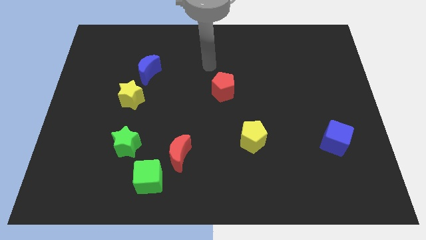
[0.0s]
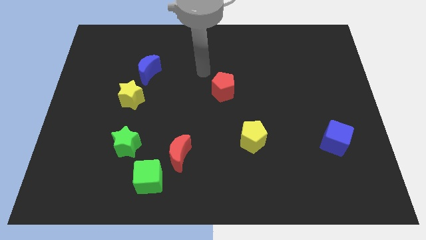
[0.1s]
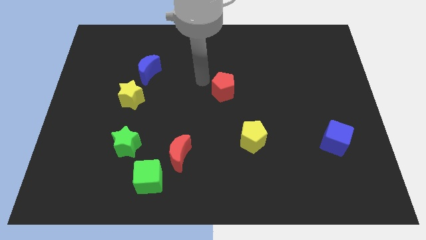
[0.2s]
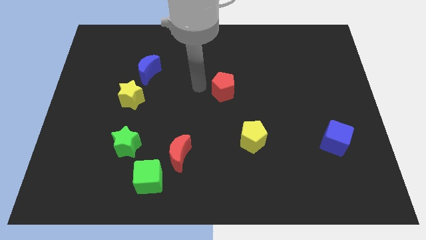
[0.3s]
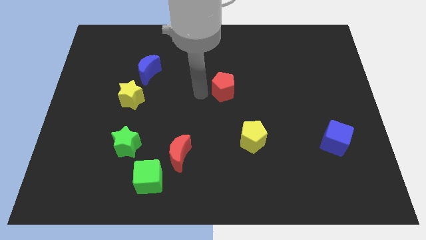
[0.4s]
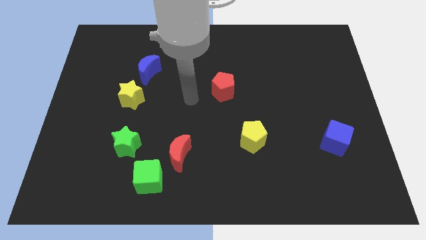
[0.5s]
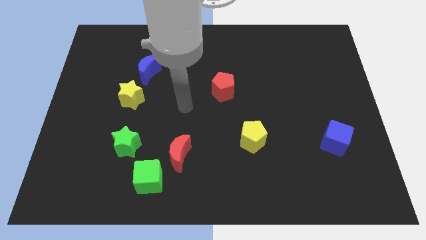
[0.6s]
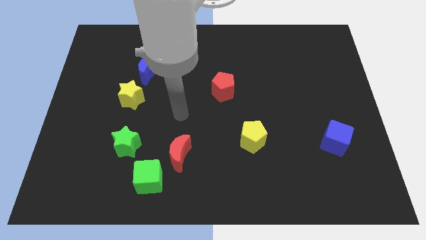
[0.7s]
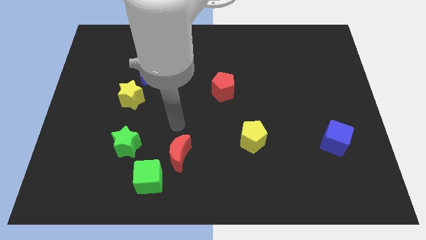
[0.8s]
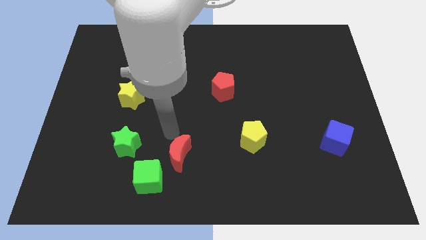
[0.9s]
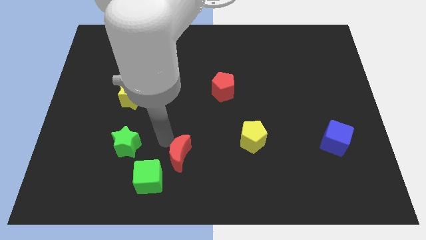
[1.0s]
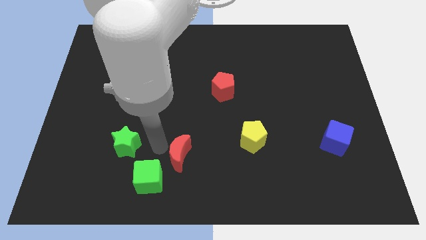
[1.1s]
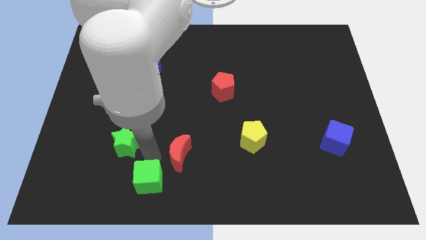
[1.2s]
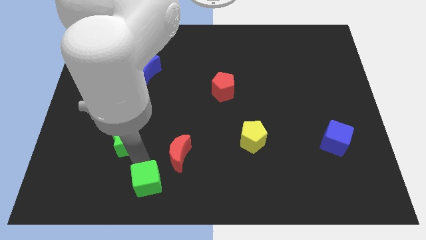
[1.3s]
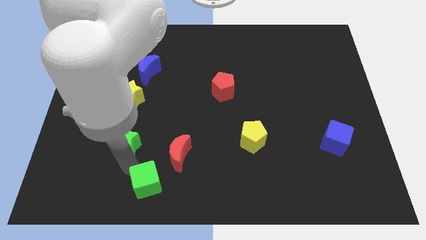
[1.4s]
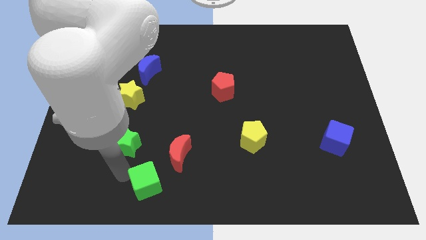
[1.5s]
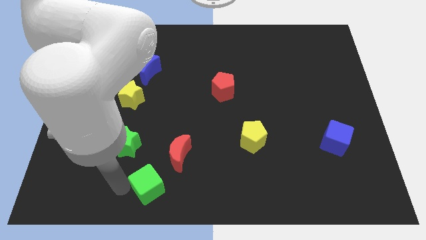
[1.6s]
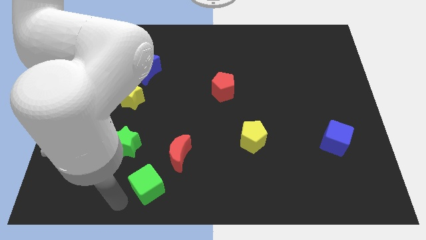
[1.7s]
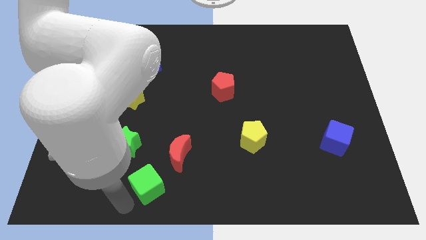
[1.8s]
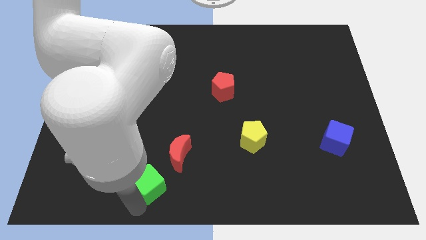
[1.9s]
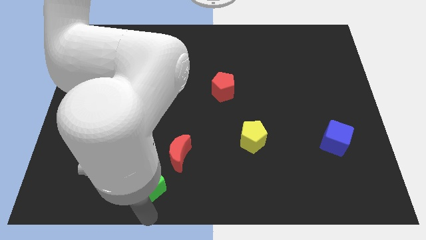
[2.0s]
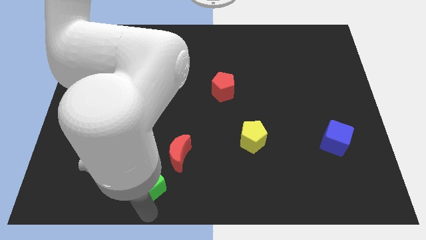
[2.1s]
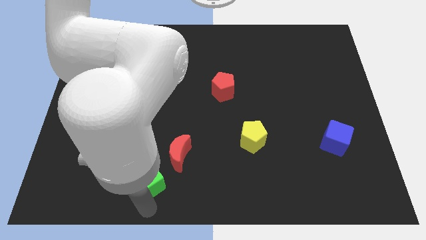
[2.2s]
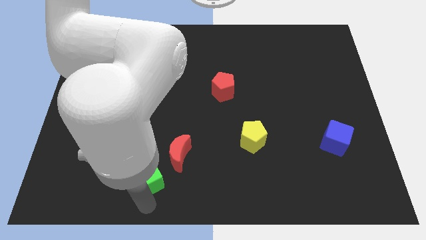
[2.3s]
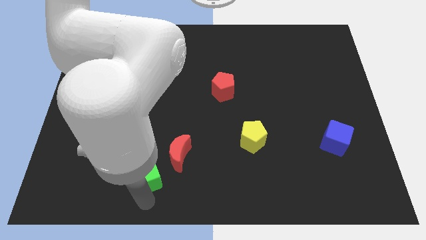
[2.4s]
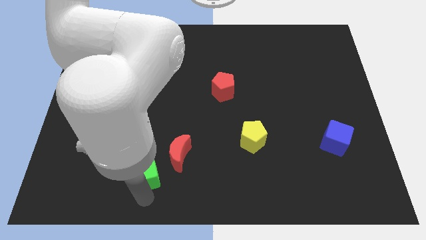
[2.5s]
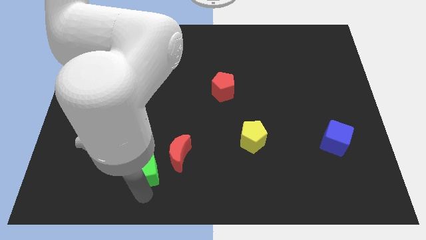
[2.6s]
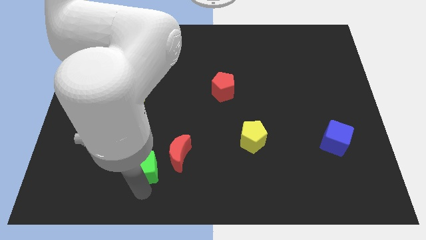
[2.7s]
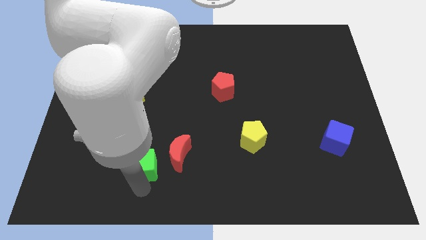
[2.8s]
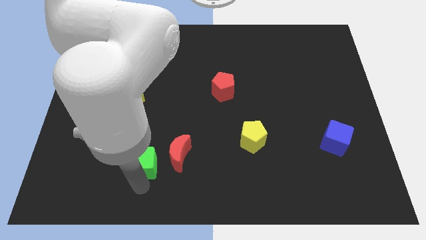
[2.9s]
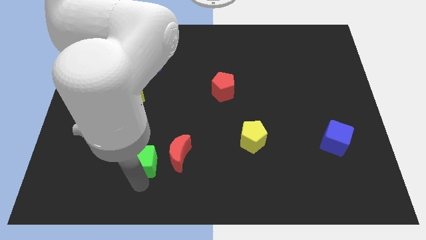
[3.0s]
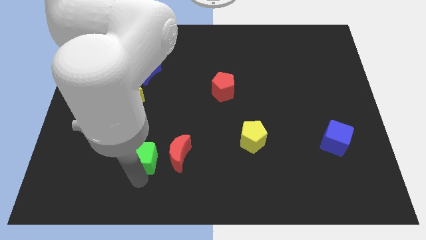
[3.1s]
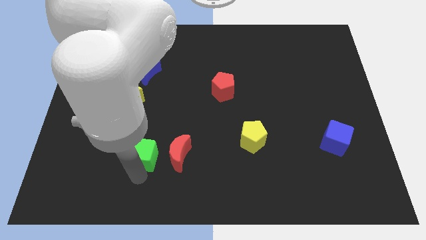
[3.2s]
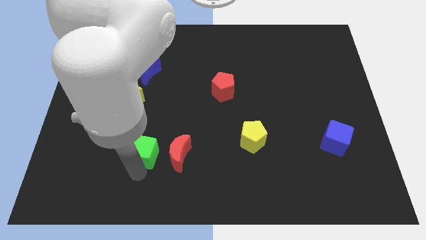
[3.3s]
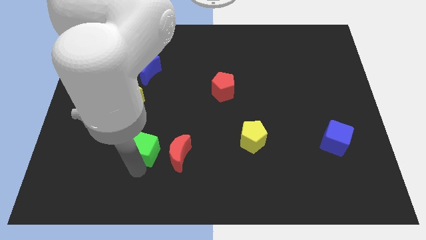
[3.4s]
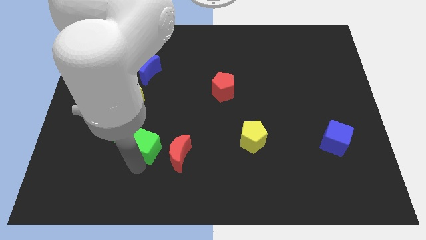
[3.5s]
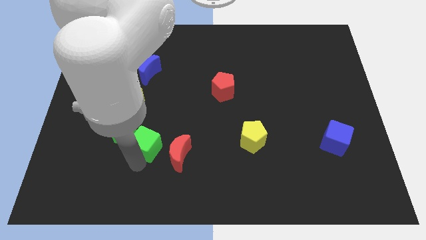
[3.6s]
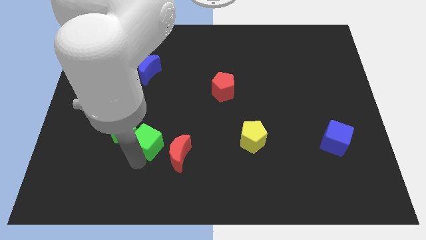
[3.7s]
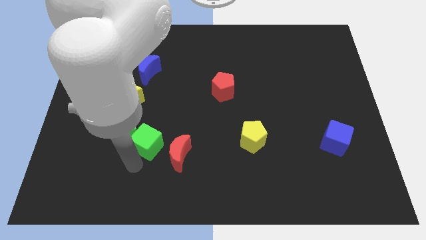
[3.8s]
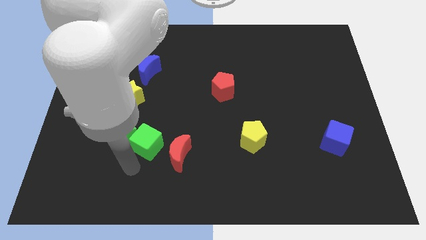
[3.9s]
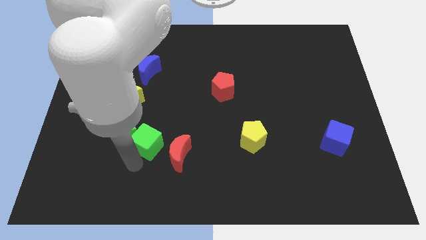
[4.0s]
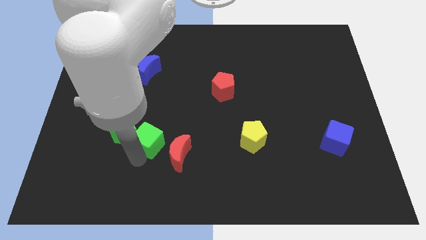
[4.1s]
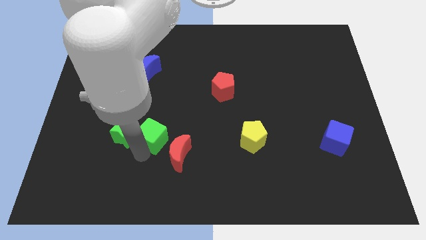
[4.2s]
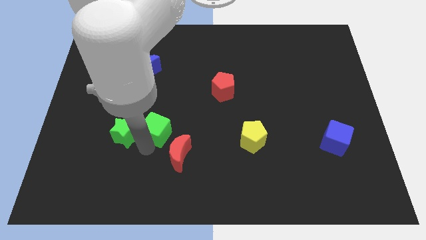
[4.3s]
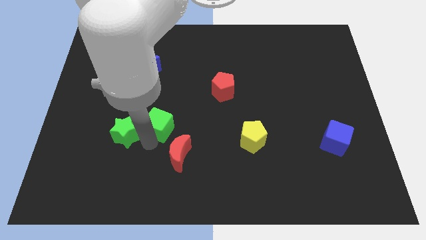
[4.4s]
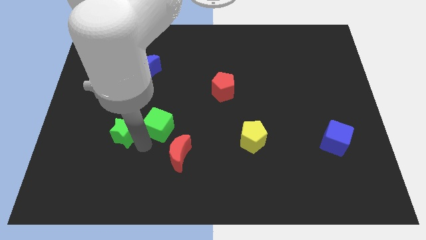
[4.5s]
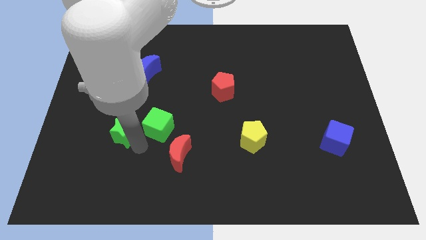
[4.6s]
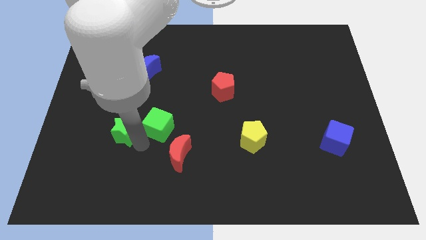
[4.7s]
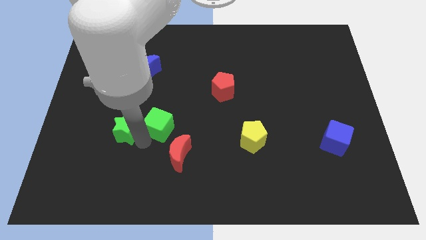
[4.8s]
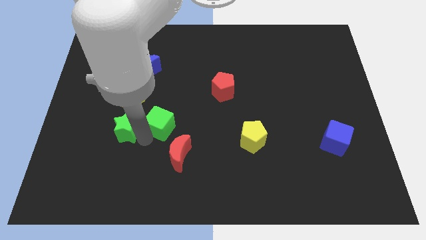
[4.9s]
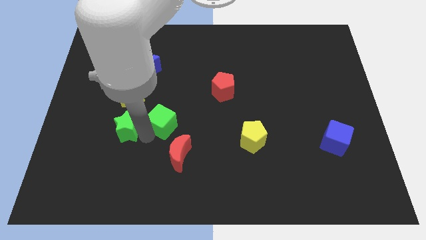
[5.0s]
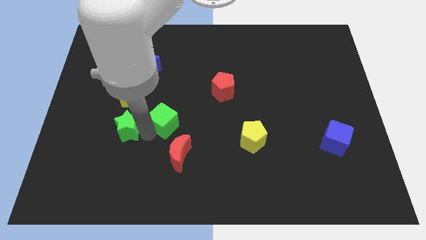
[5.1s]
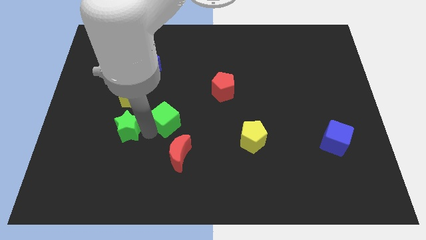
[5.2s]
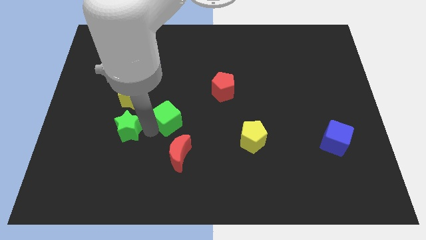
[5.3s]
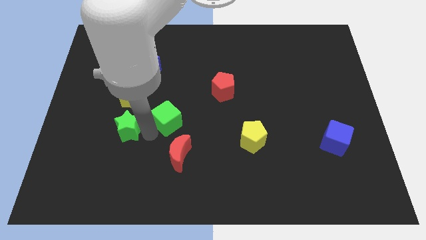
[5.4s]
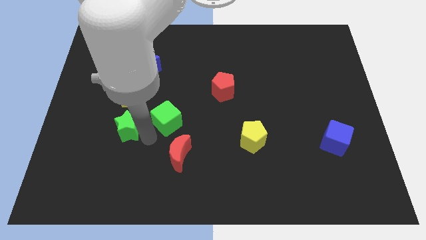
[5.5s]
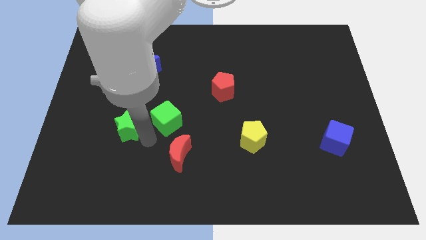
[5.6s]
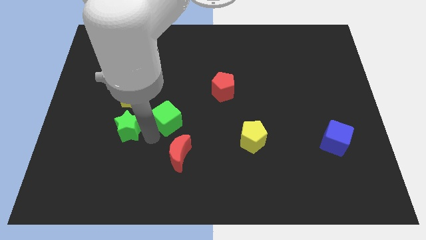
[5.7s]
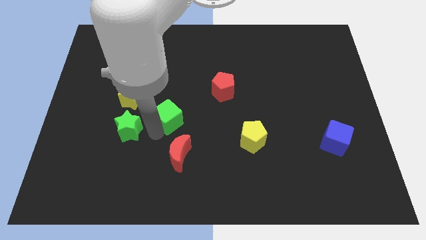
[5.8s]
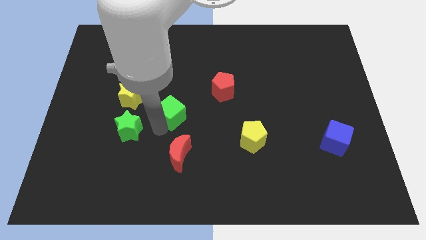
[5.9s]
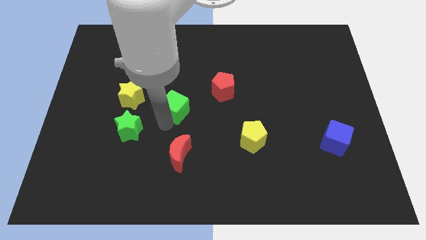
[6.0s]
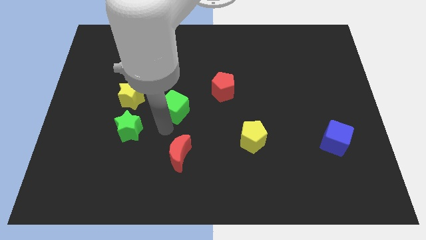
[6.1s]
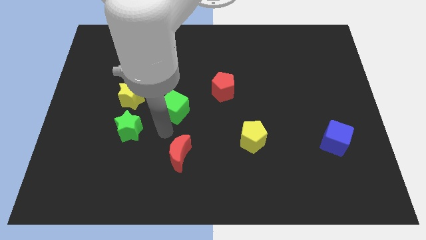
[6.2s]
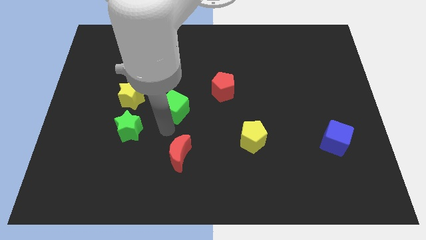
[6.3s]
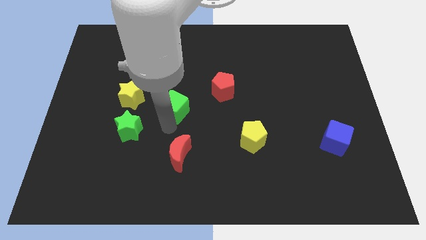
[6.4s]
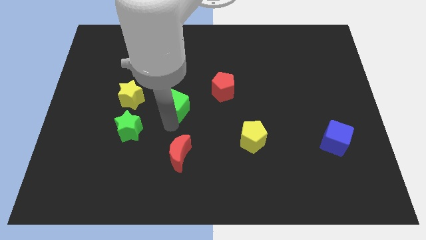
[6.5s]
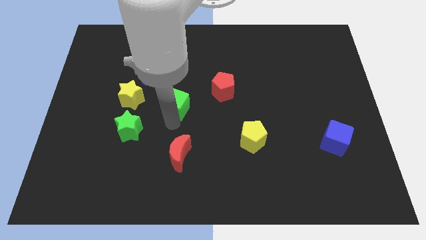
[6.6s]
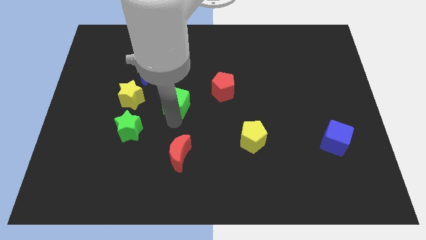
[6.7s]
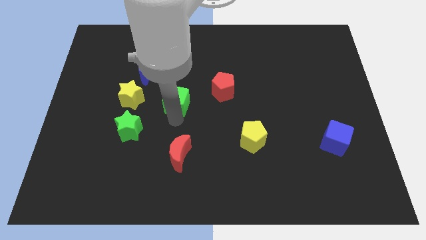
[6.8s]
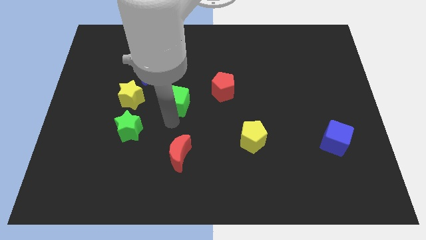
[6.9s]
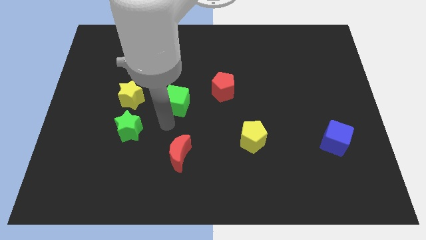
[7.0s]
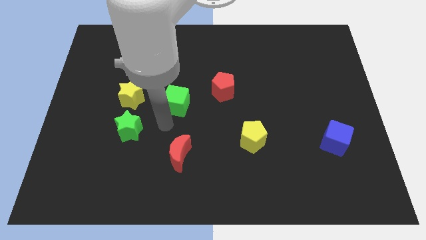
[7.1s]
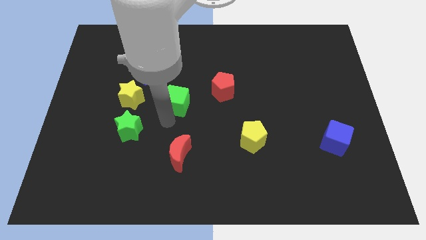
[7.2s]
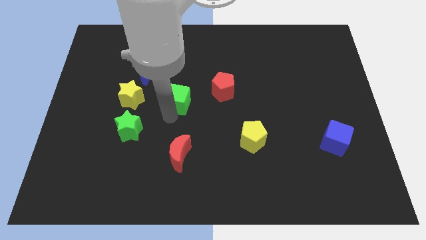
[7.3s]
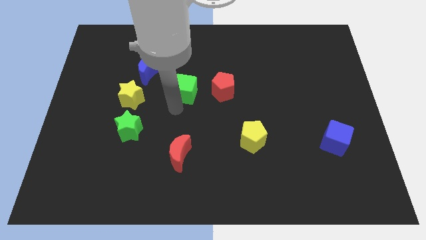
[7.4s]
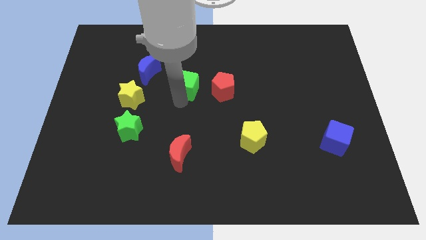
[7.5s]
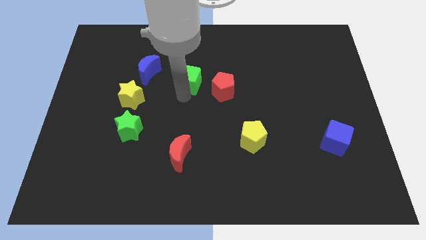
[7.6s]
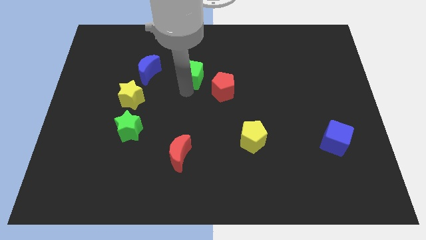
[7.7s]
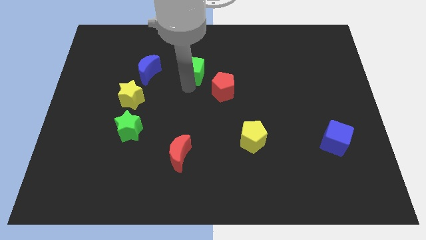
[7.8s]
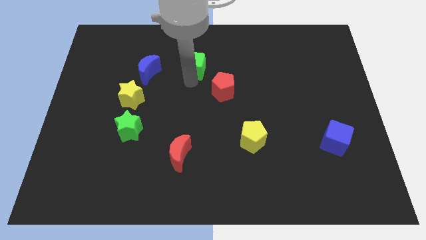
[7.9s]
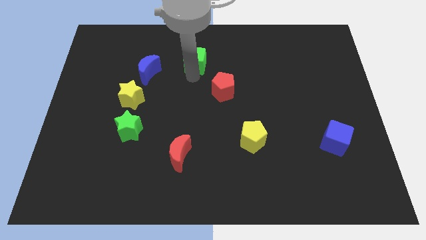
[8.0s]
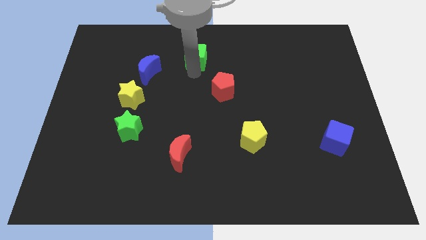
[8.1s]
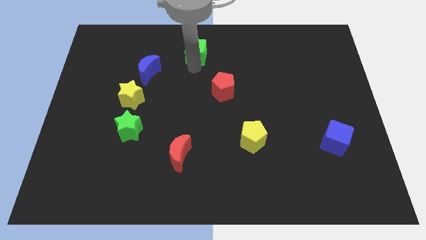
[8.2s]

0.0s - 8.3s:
move the green cube to the top
